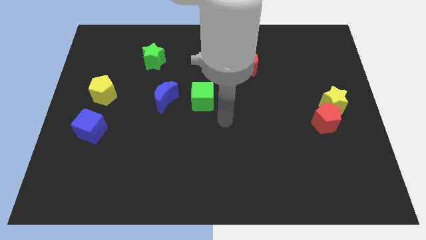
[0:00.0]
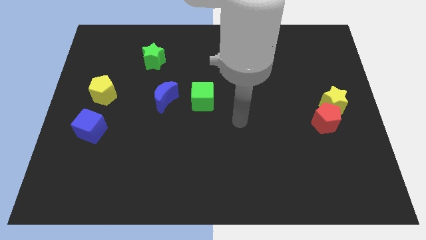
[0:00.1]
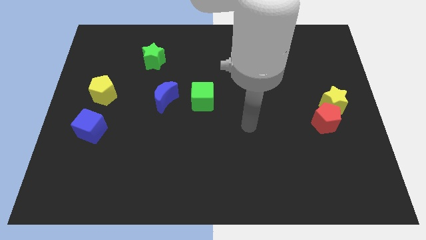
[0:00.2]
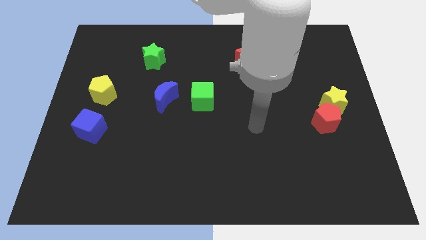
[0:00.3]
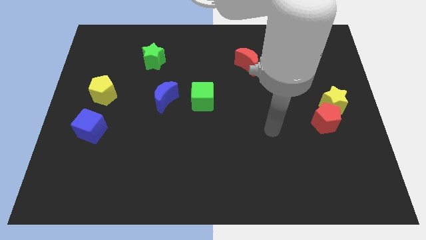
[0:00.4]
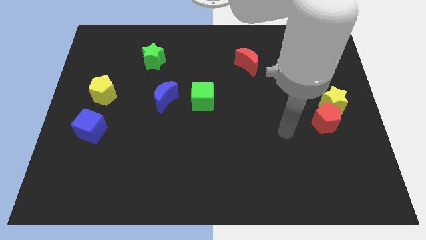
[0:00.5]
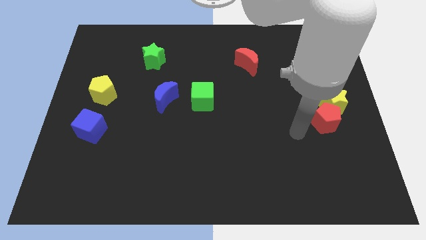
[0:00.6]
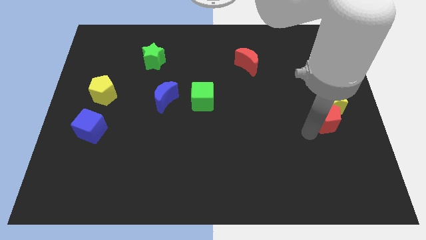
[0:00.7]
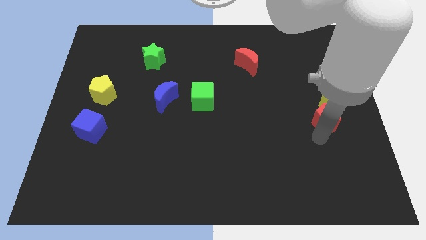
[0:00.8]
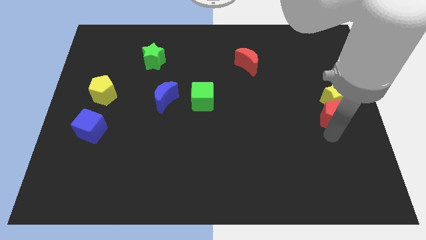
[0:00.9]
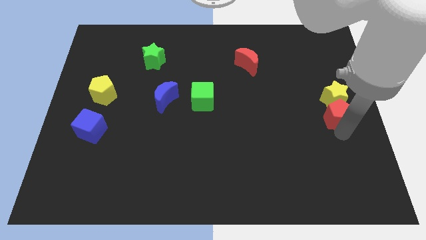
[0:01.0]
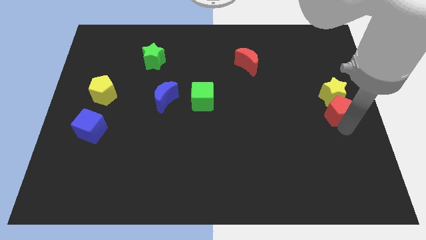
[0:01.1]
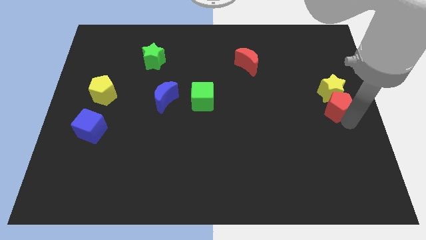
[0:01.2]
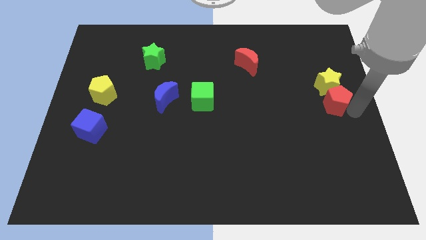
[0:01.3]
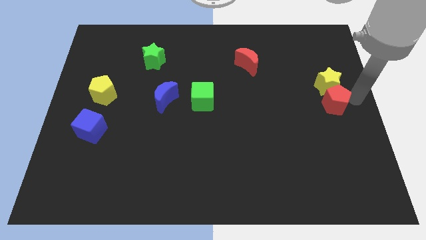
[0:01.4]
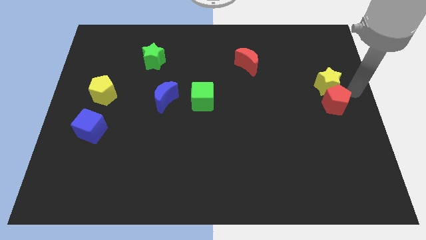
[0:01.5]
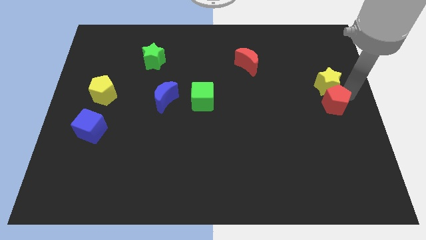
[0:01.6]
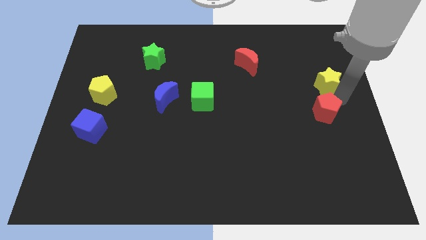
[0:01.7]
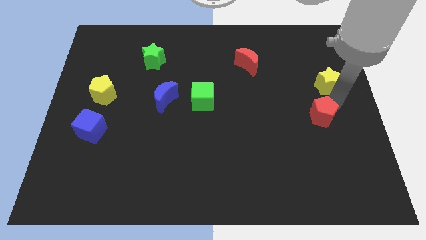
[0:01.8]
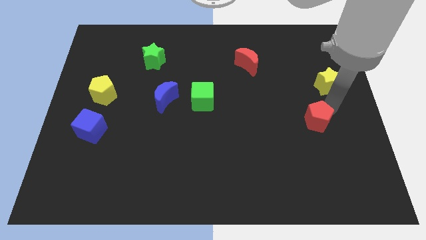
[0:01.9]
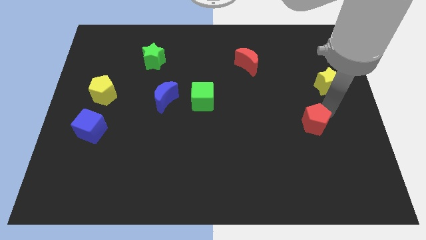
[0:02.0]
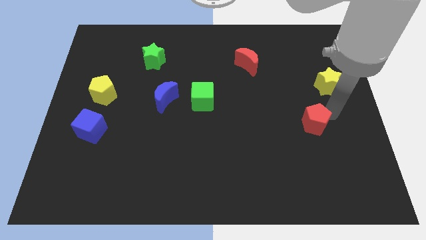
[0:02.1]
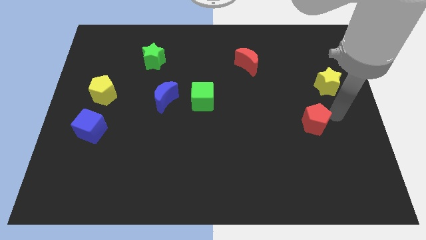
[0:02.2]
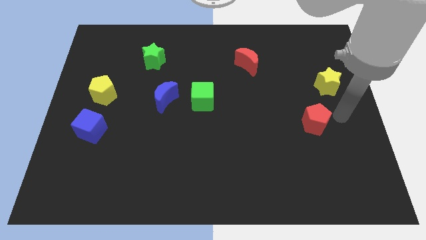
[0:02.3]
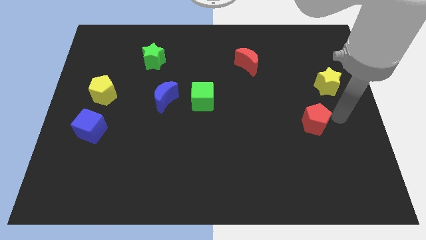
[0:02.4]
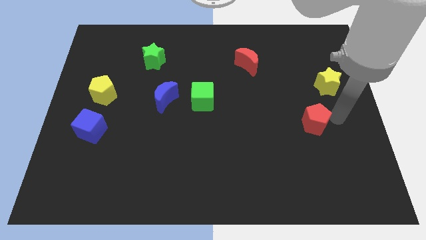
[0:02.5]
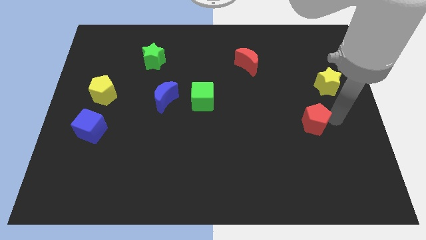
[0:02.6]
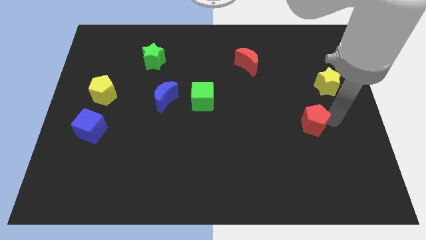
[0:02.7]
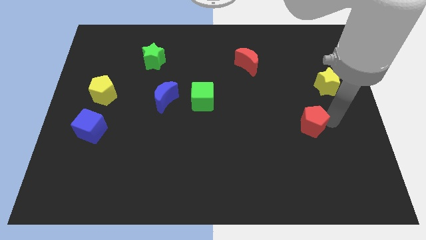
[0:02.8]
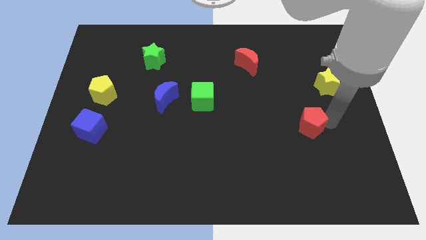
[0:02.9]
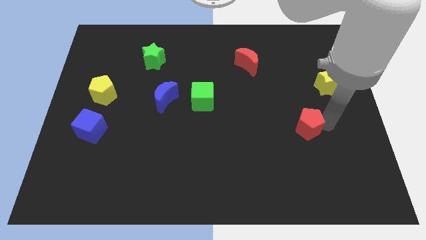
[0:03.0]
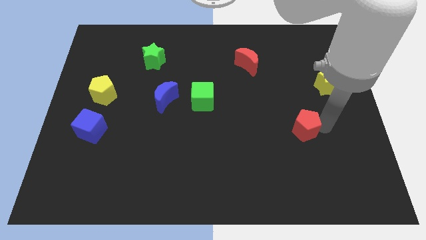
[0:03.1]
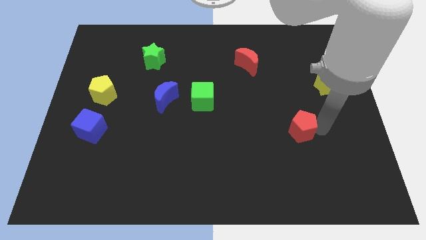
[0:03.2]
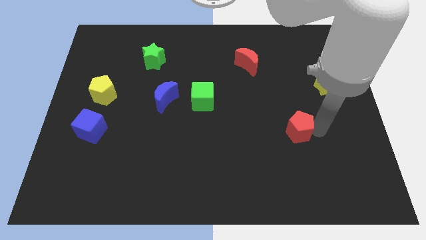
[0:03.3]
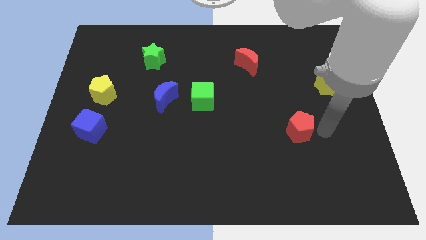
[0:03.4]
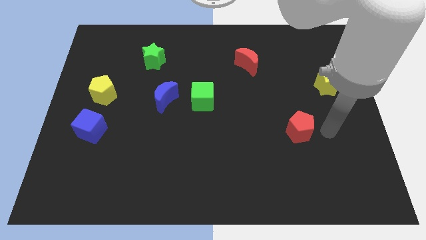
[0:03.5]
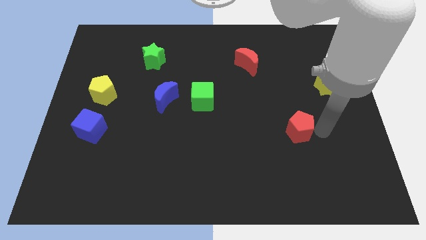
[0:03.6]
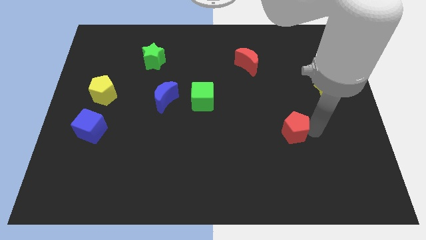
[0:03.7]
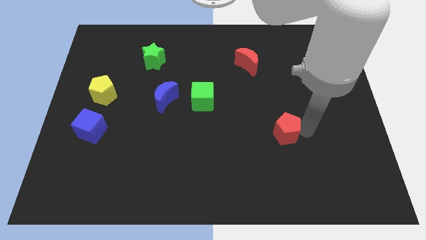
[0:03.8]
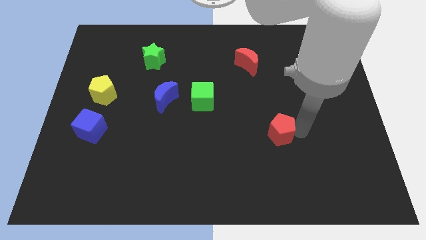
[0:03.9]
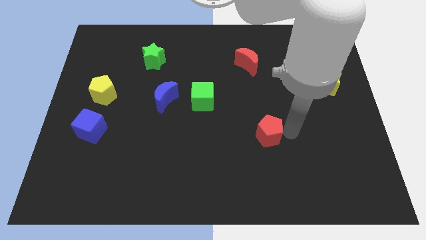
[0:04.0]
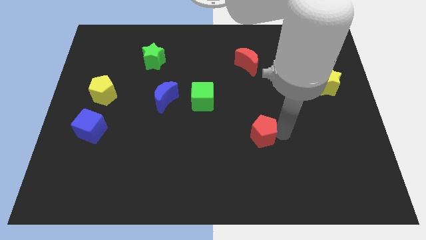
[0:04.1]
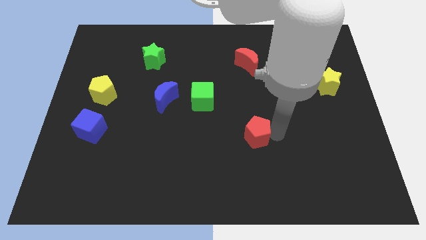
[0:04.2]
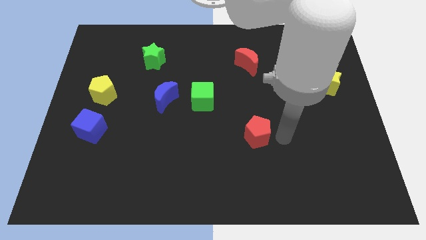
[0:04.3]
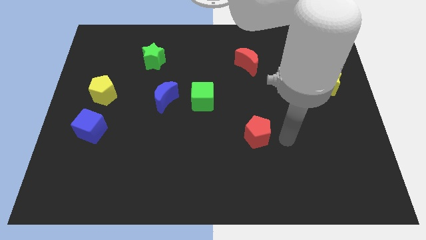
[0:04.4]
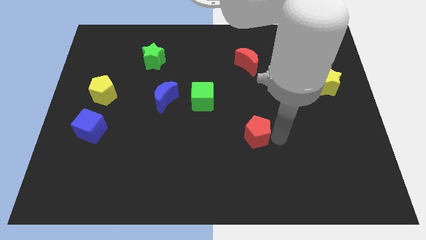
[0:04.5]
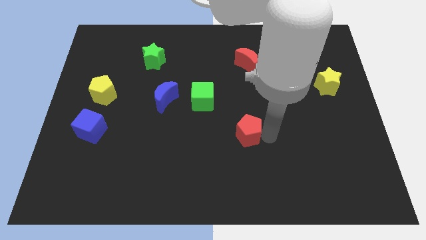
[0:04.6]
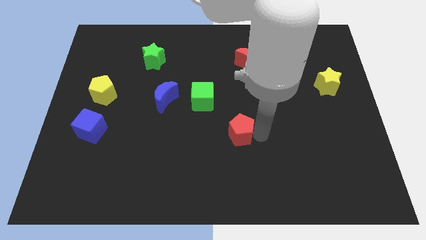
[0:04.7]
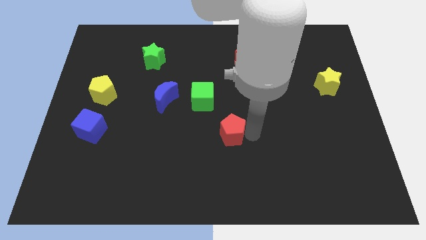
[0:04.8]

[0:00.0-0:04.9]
move the red pentagon left

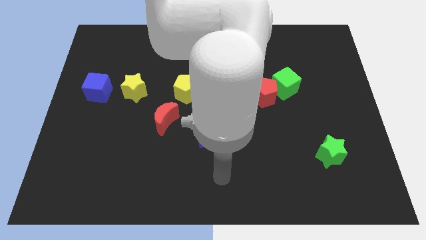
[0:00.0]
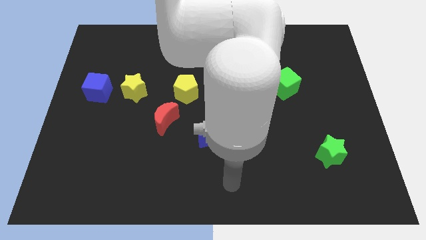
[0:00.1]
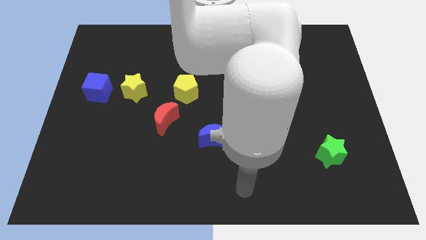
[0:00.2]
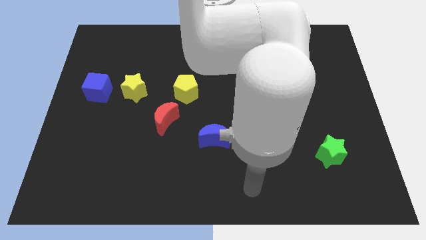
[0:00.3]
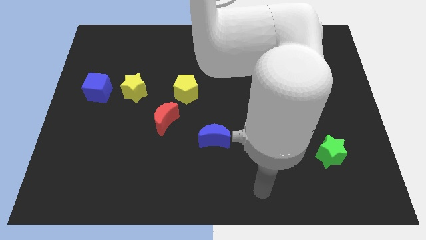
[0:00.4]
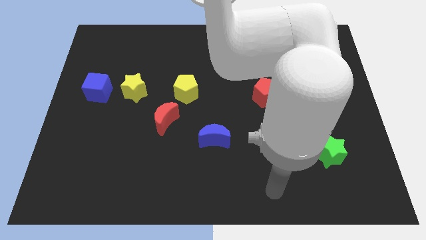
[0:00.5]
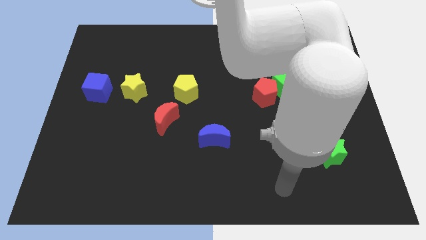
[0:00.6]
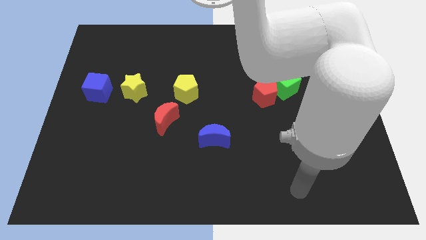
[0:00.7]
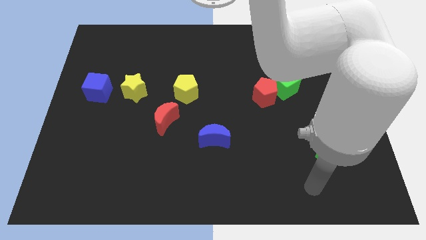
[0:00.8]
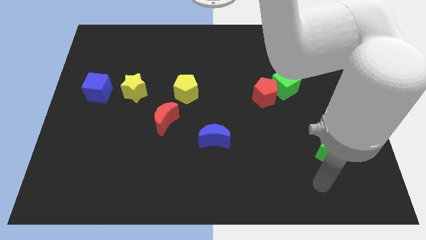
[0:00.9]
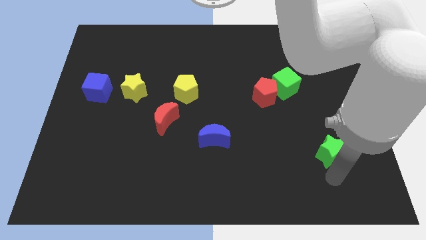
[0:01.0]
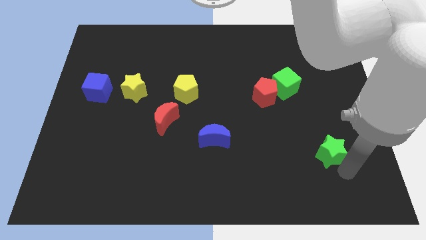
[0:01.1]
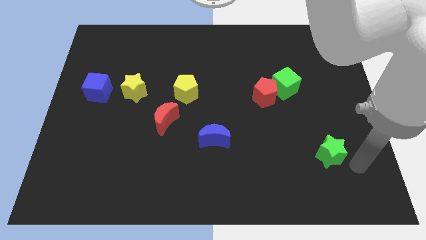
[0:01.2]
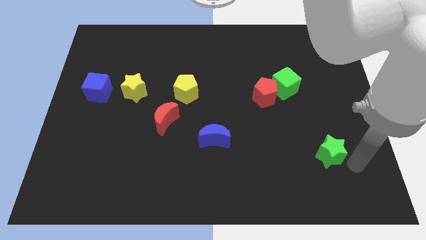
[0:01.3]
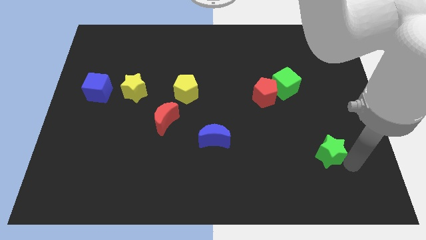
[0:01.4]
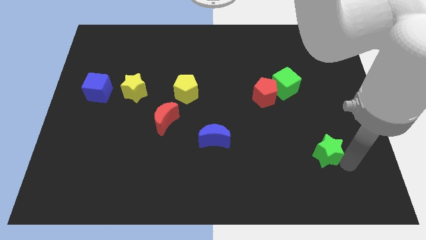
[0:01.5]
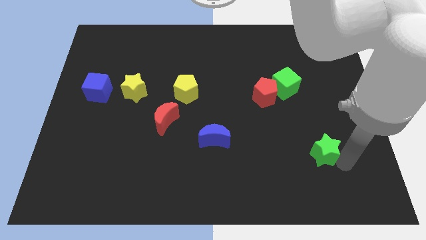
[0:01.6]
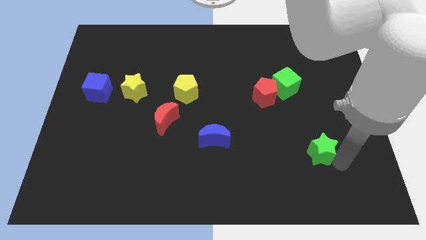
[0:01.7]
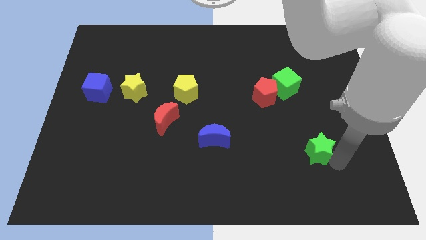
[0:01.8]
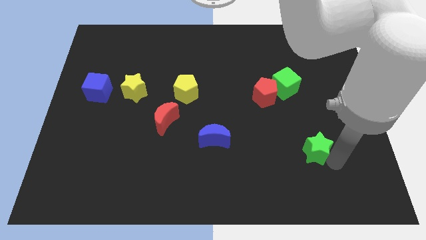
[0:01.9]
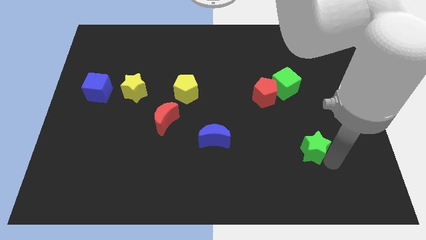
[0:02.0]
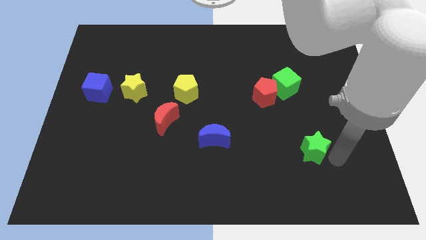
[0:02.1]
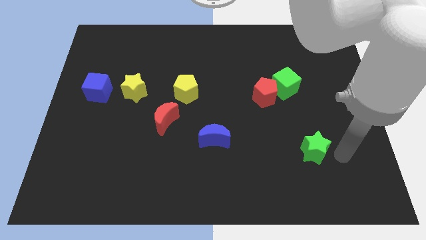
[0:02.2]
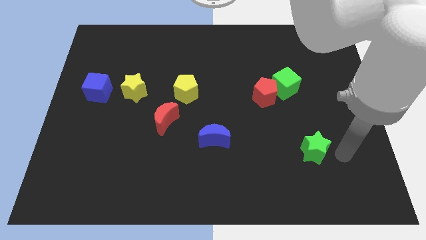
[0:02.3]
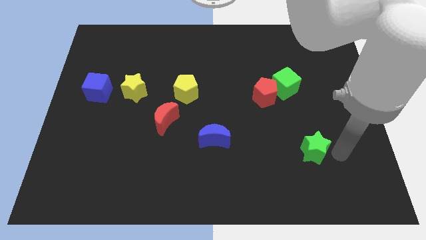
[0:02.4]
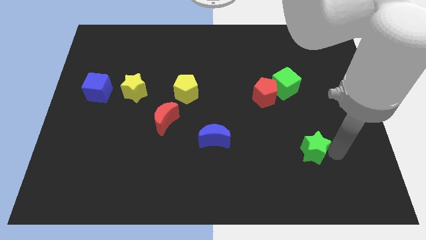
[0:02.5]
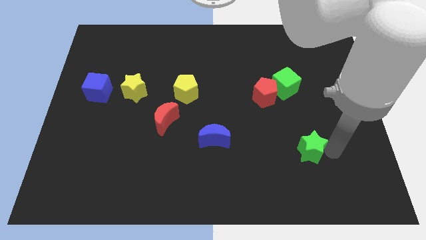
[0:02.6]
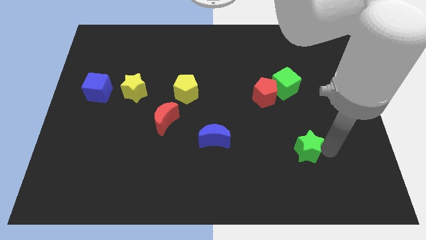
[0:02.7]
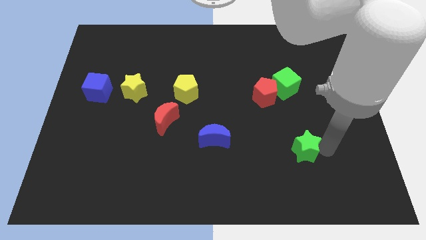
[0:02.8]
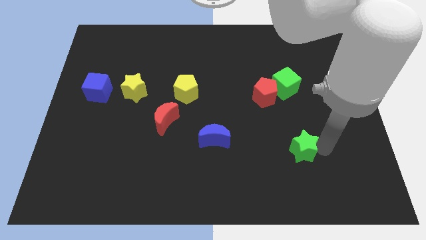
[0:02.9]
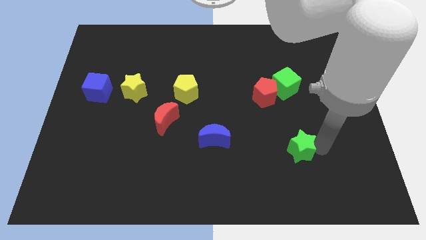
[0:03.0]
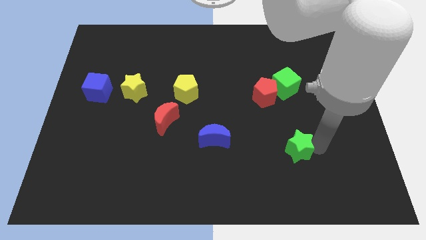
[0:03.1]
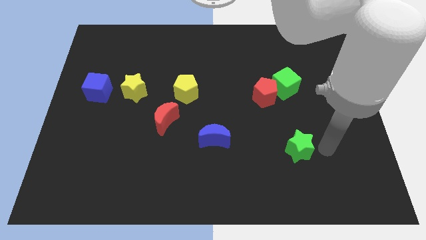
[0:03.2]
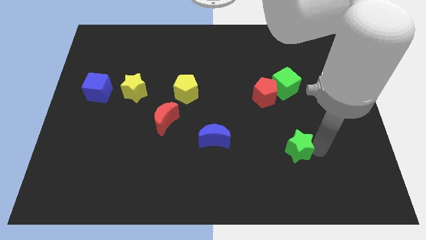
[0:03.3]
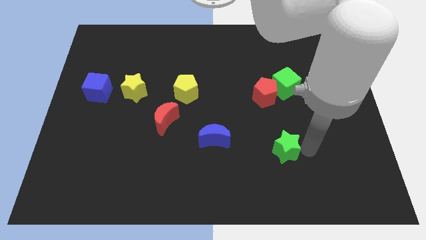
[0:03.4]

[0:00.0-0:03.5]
slide the green star a little to the left
